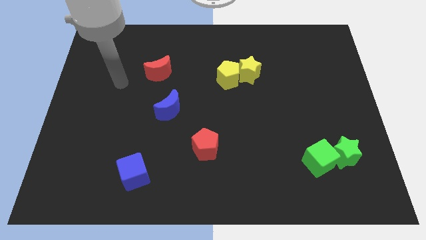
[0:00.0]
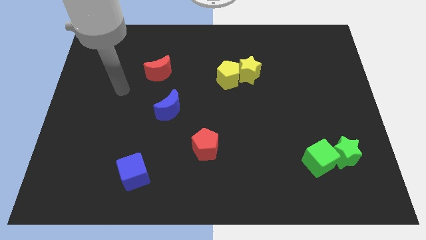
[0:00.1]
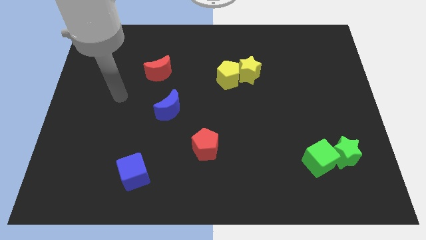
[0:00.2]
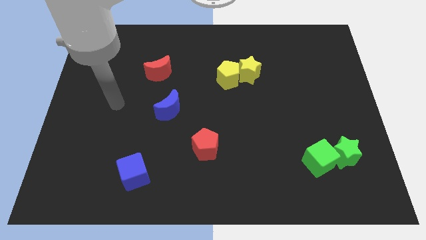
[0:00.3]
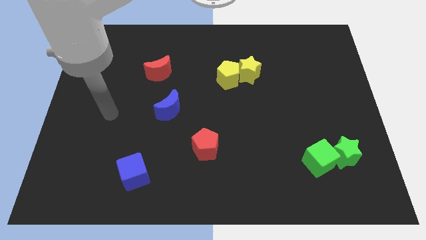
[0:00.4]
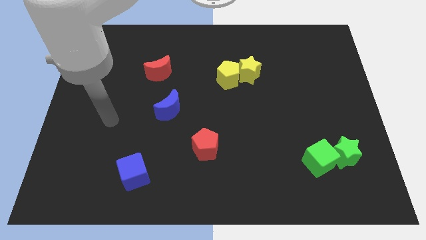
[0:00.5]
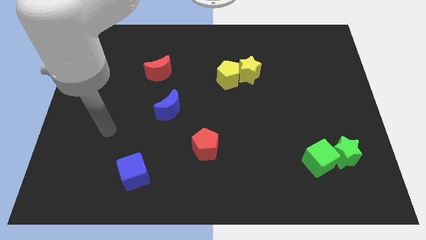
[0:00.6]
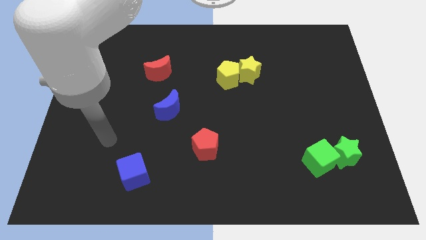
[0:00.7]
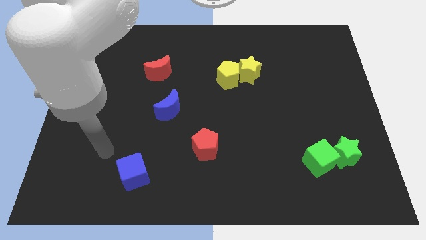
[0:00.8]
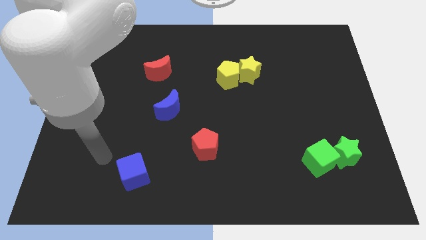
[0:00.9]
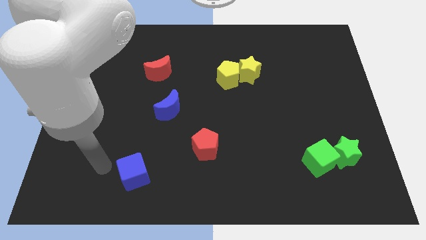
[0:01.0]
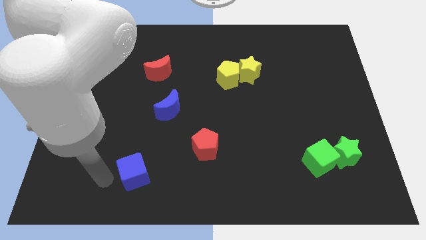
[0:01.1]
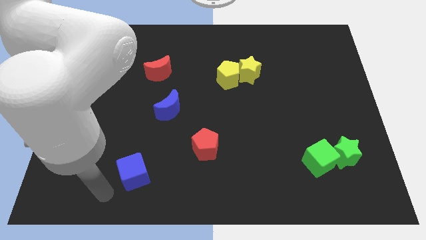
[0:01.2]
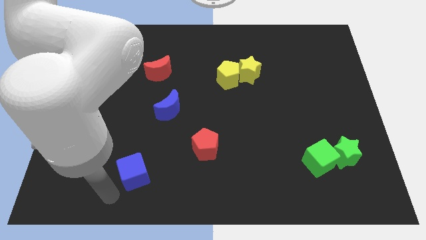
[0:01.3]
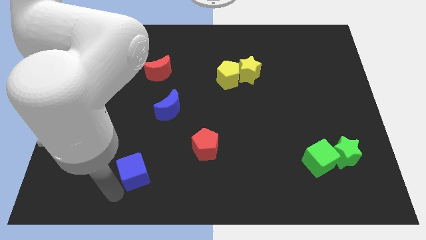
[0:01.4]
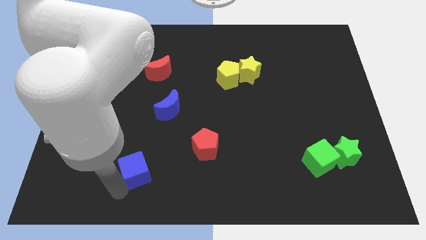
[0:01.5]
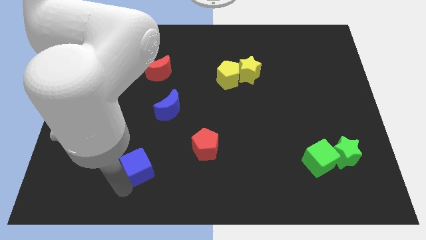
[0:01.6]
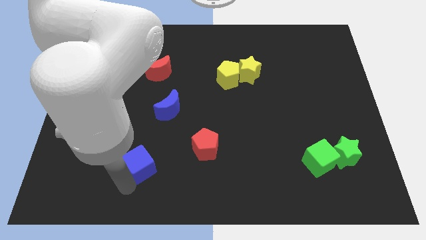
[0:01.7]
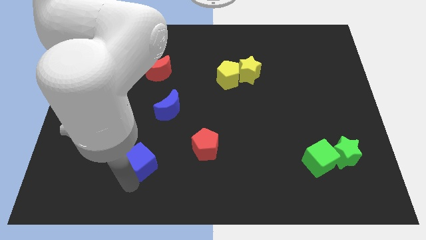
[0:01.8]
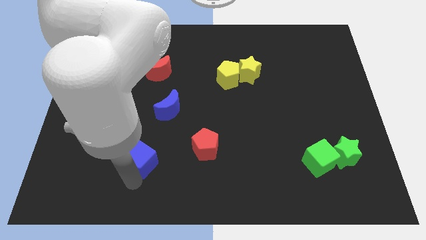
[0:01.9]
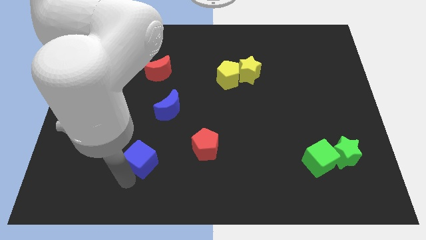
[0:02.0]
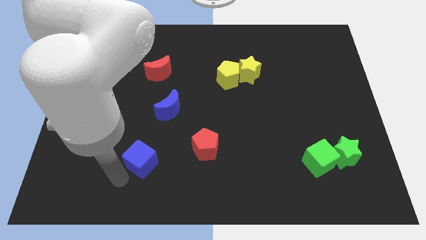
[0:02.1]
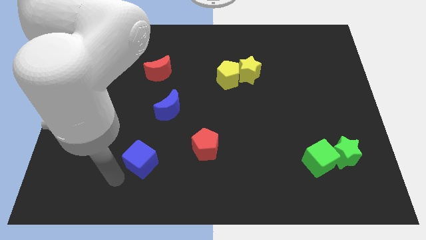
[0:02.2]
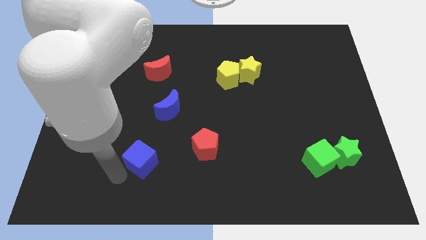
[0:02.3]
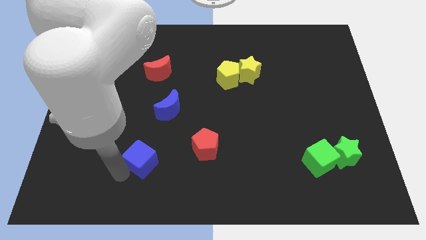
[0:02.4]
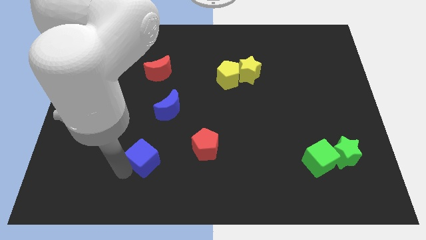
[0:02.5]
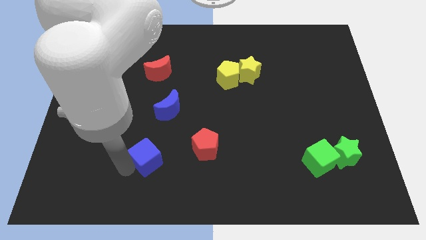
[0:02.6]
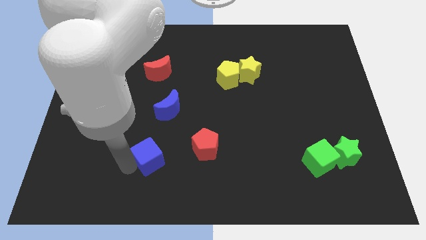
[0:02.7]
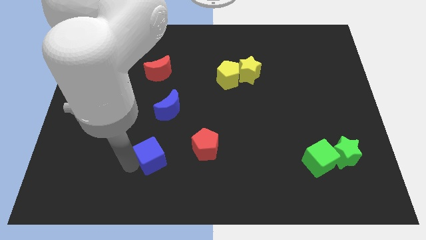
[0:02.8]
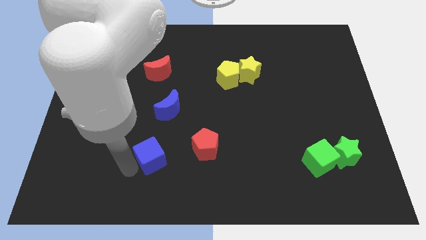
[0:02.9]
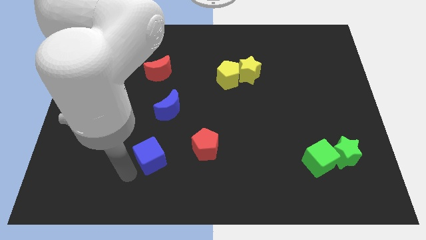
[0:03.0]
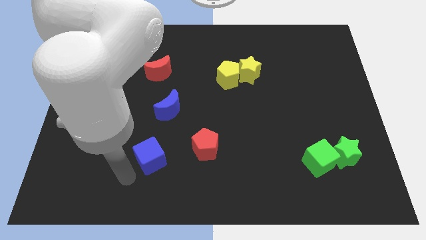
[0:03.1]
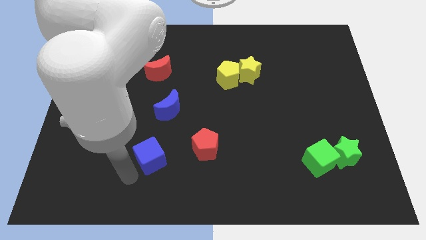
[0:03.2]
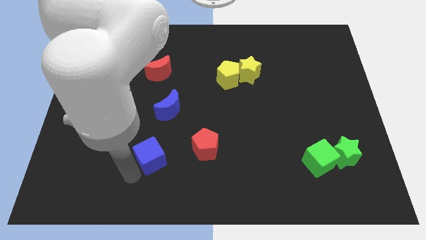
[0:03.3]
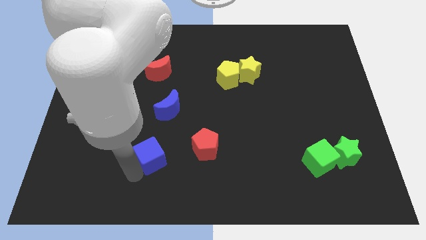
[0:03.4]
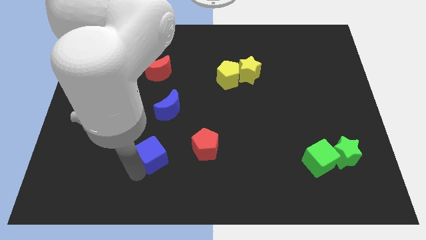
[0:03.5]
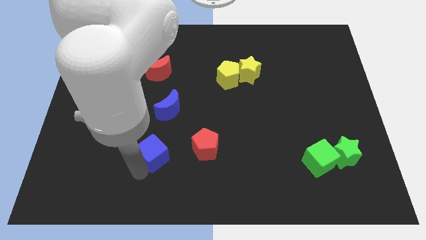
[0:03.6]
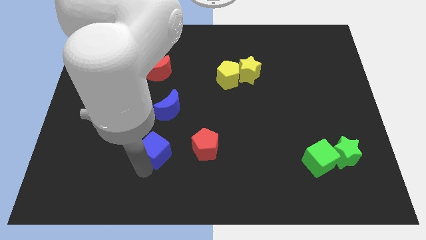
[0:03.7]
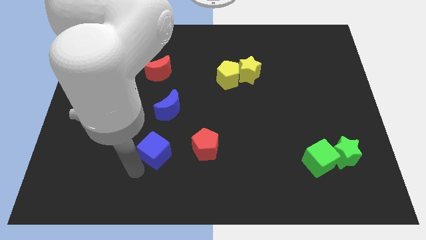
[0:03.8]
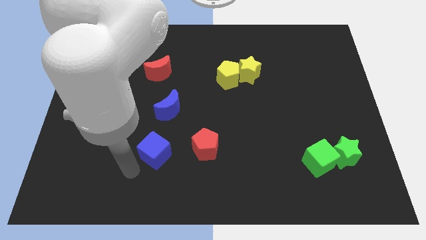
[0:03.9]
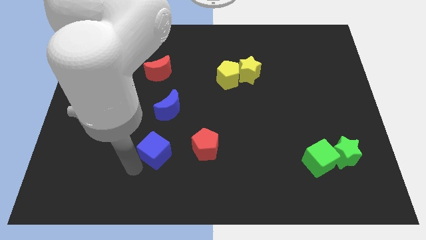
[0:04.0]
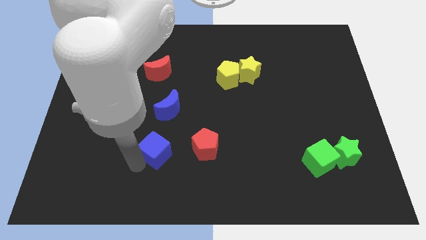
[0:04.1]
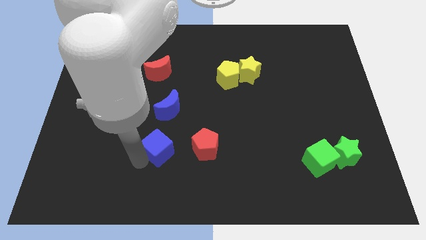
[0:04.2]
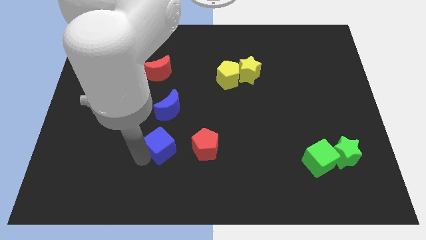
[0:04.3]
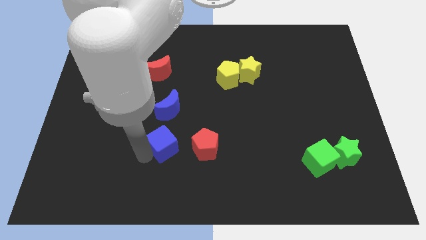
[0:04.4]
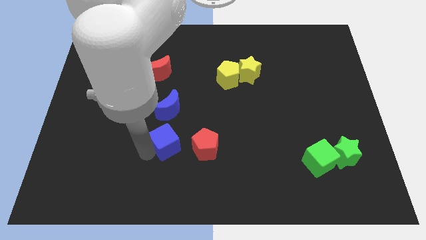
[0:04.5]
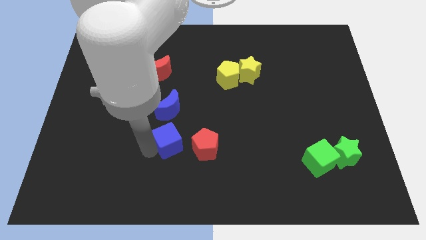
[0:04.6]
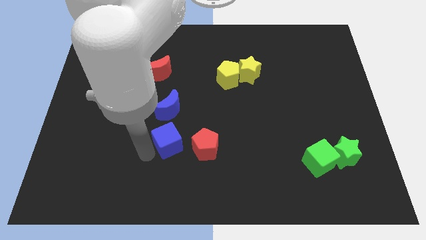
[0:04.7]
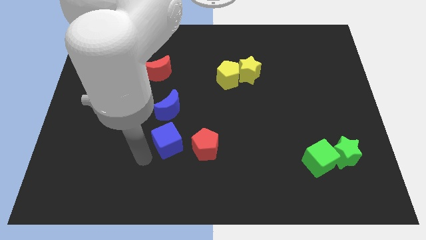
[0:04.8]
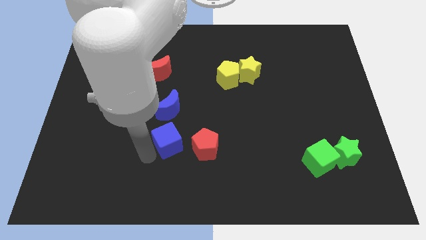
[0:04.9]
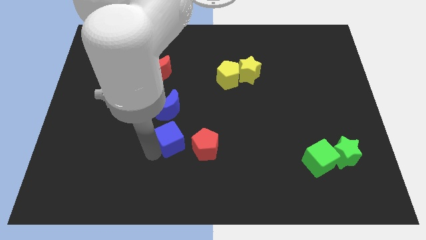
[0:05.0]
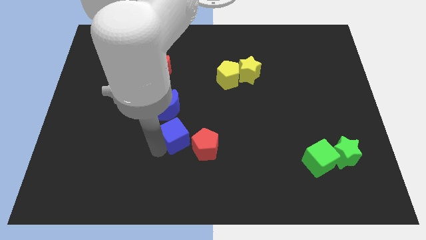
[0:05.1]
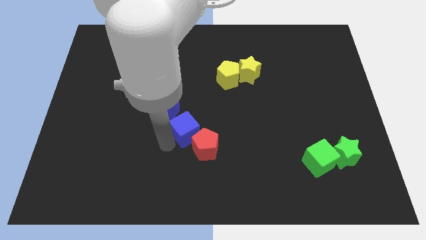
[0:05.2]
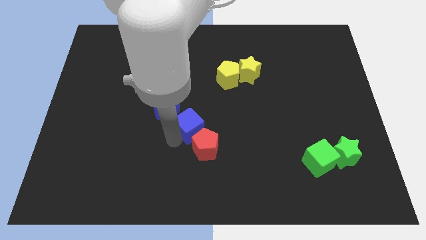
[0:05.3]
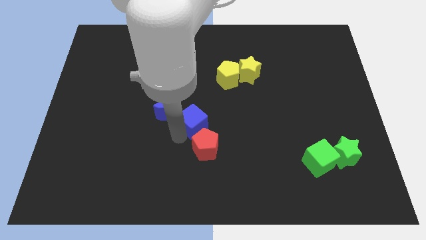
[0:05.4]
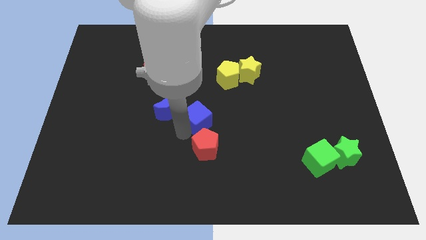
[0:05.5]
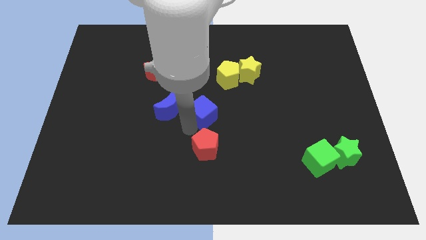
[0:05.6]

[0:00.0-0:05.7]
push the blue cube up and to the right

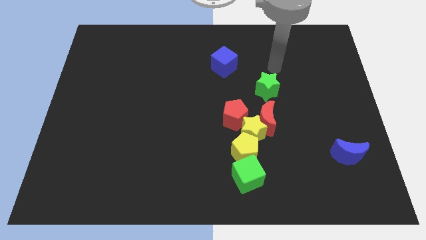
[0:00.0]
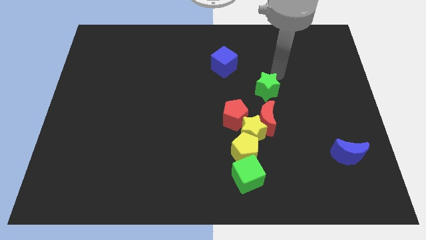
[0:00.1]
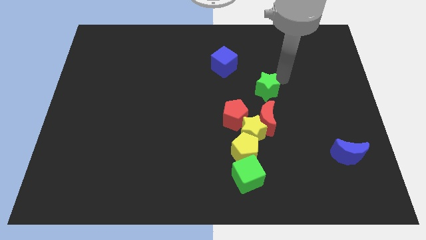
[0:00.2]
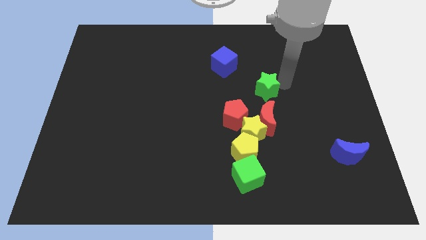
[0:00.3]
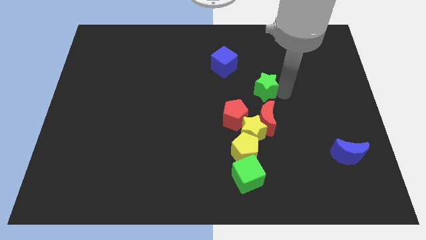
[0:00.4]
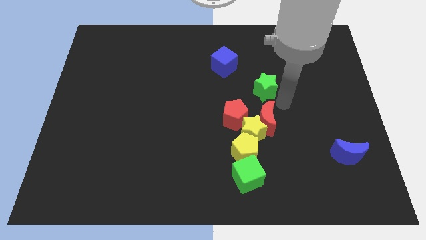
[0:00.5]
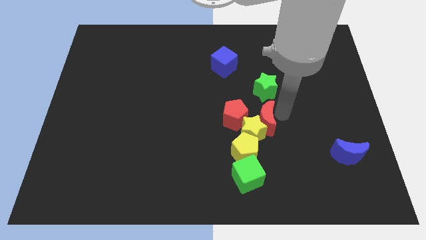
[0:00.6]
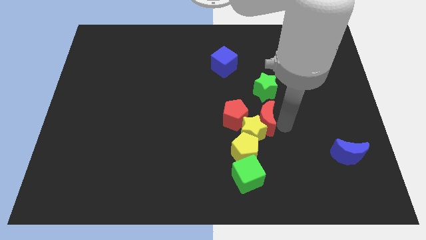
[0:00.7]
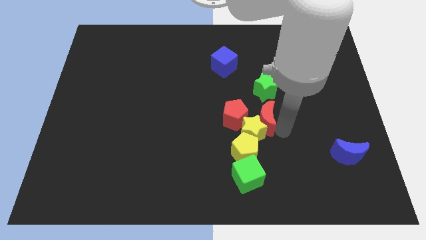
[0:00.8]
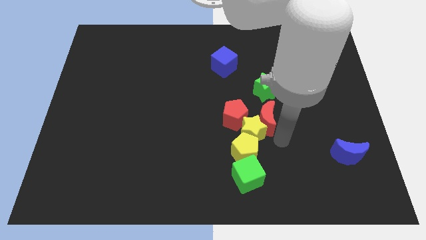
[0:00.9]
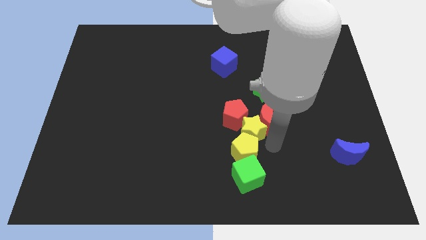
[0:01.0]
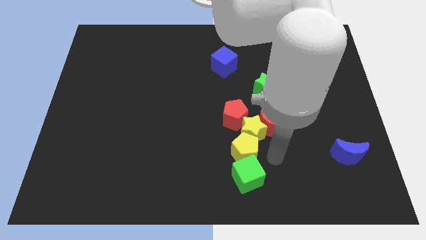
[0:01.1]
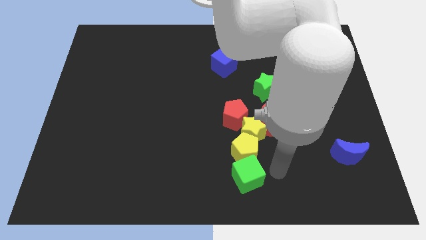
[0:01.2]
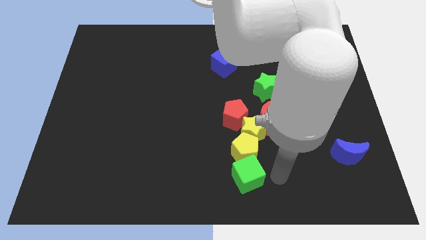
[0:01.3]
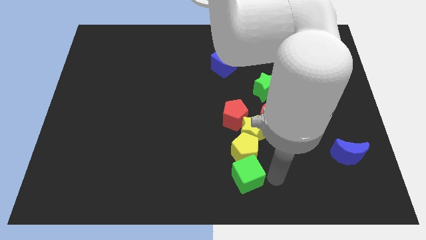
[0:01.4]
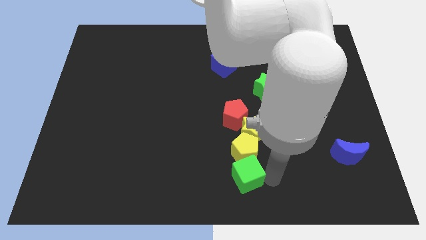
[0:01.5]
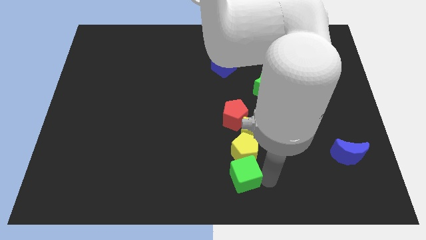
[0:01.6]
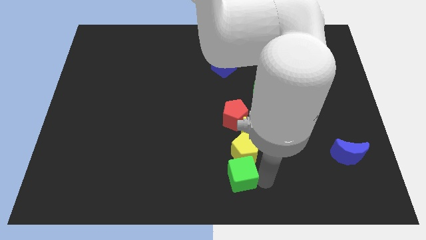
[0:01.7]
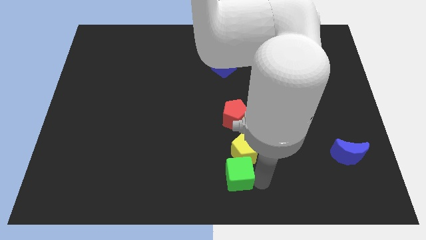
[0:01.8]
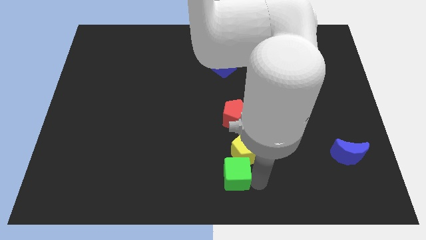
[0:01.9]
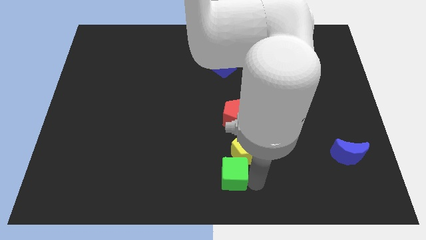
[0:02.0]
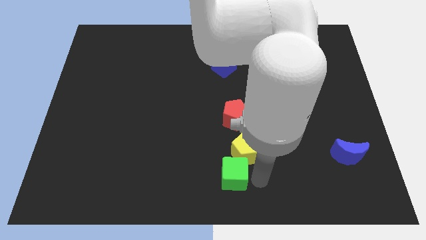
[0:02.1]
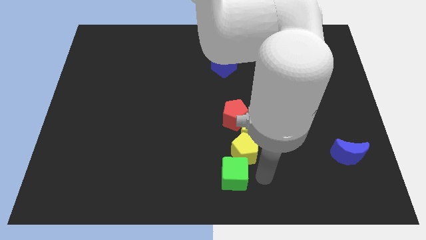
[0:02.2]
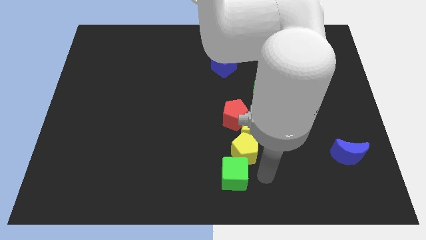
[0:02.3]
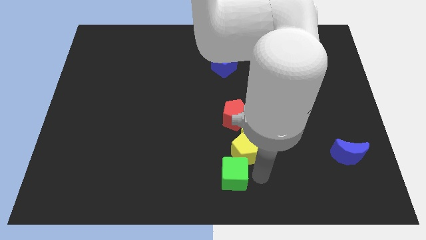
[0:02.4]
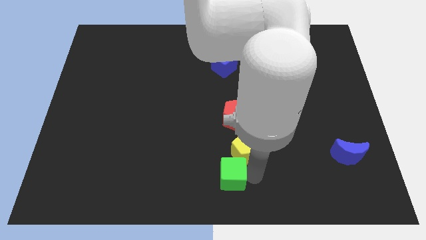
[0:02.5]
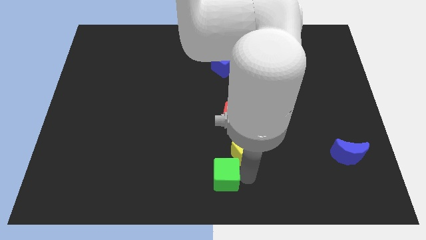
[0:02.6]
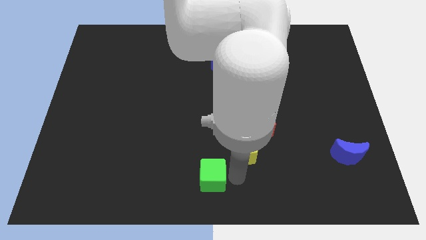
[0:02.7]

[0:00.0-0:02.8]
move the green cube left slightly
